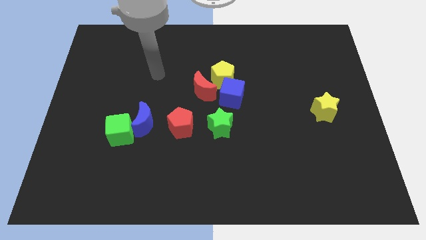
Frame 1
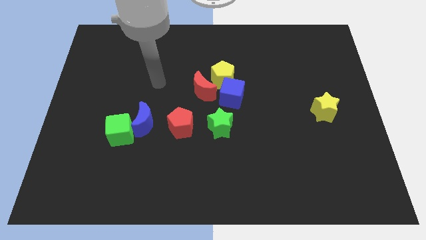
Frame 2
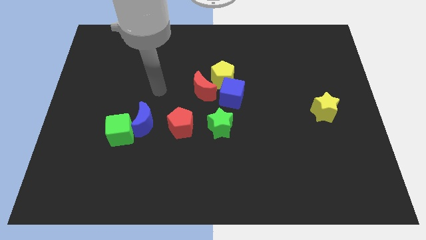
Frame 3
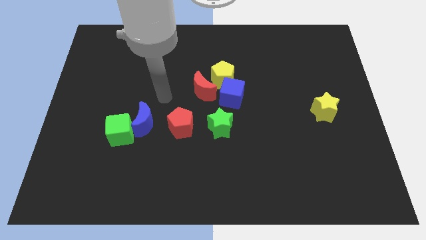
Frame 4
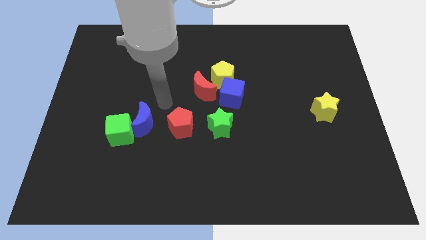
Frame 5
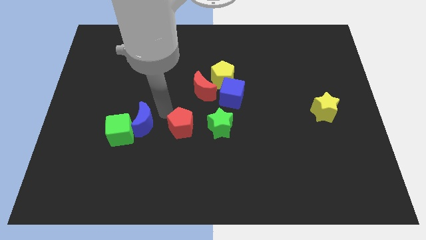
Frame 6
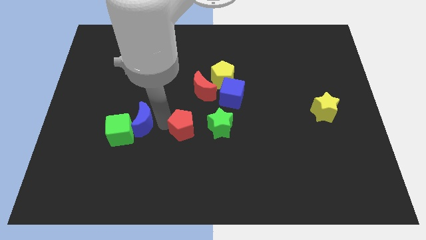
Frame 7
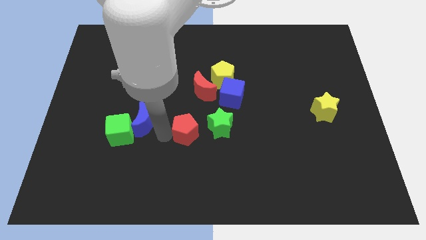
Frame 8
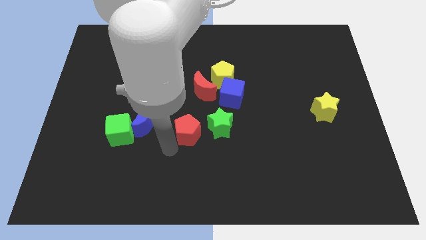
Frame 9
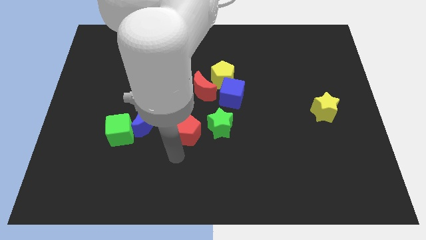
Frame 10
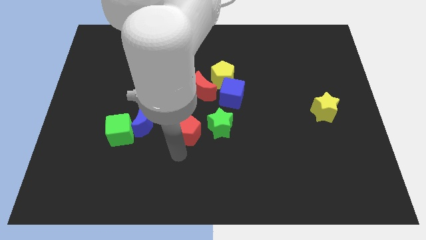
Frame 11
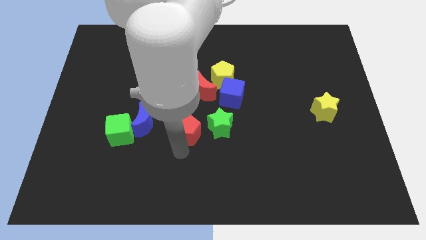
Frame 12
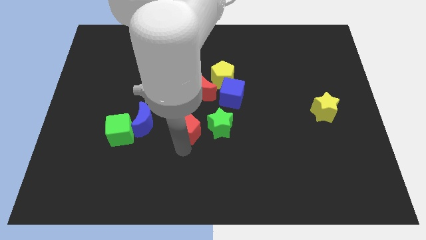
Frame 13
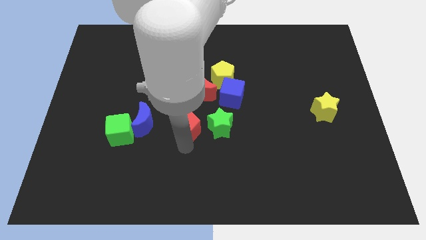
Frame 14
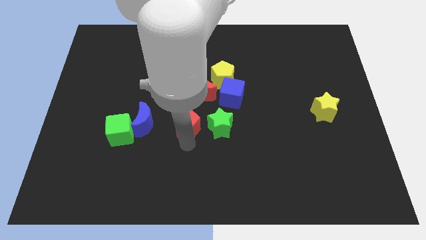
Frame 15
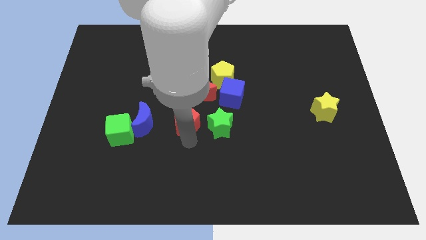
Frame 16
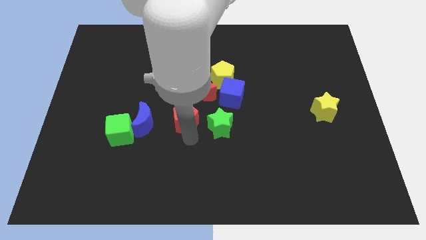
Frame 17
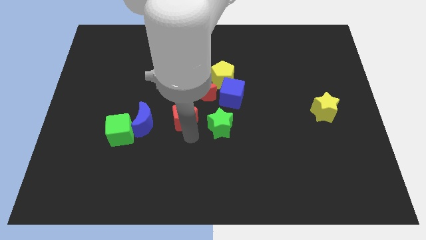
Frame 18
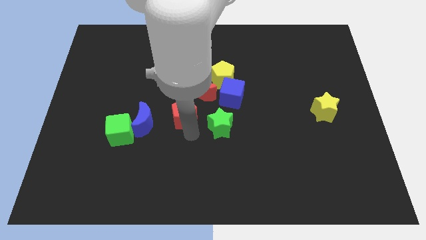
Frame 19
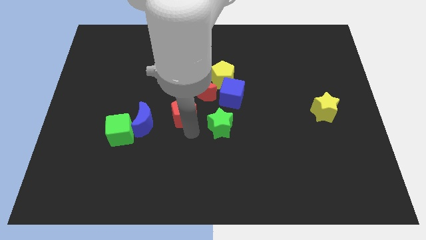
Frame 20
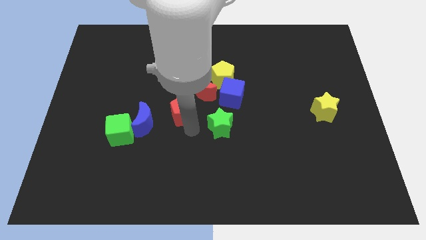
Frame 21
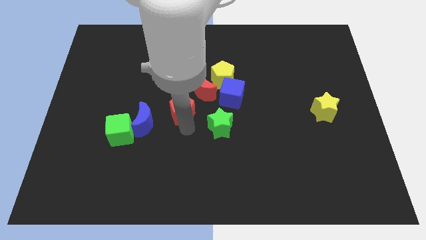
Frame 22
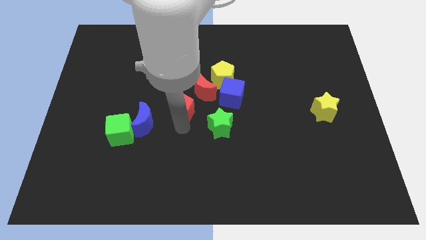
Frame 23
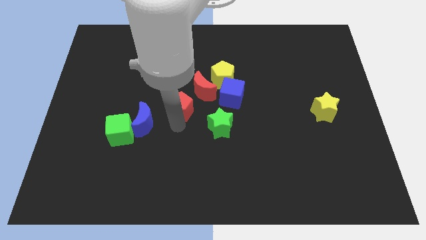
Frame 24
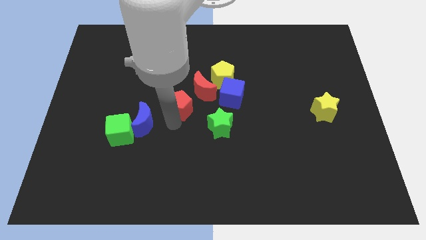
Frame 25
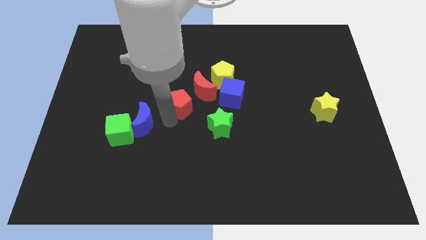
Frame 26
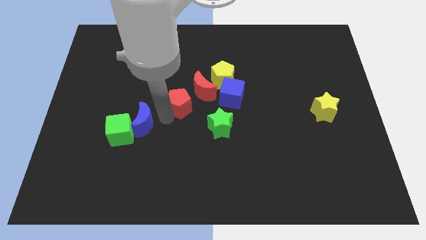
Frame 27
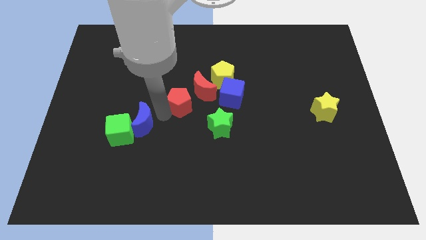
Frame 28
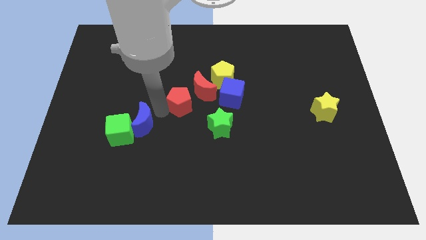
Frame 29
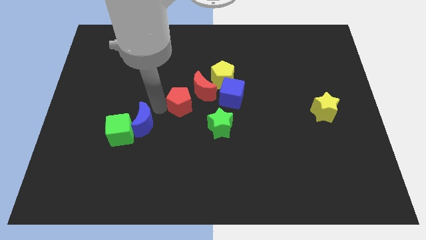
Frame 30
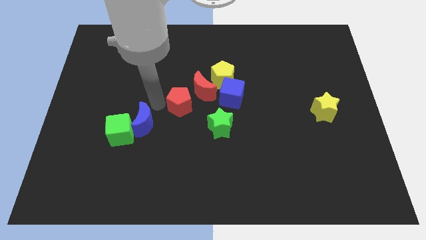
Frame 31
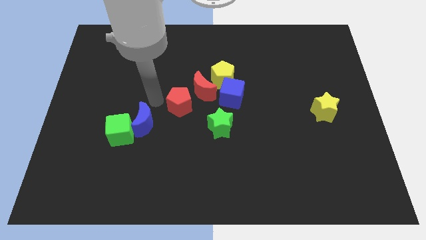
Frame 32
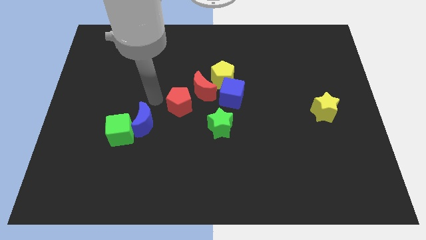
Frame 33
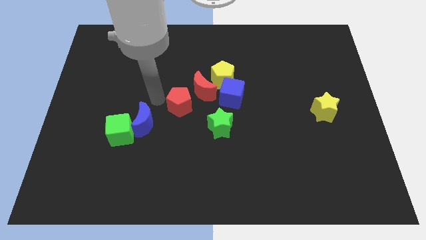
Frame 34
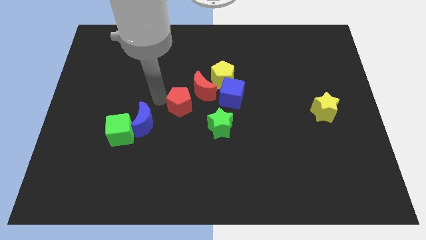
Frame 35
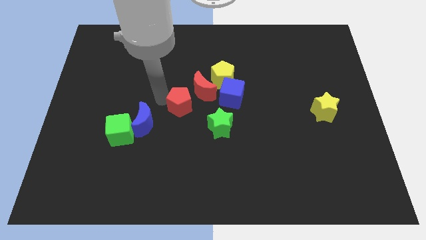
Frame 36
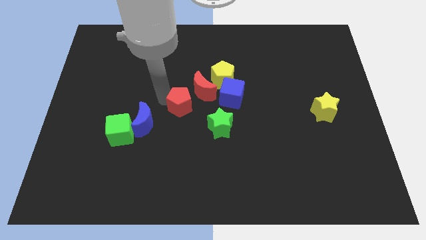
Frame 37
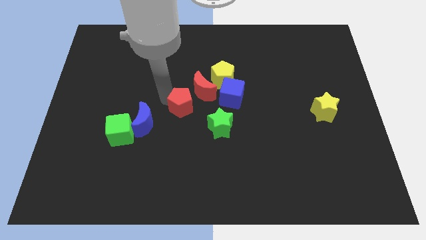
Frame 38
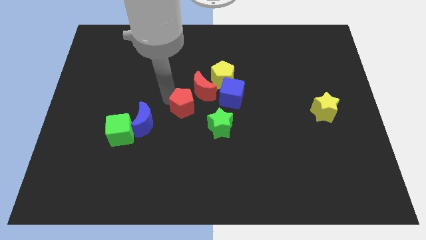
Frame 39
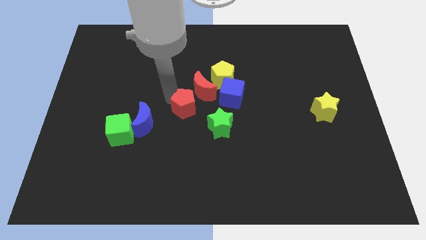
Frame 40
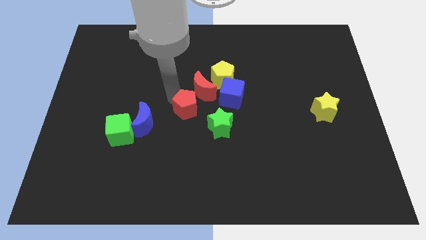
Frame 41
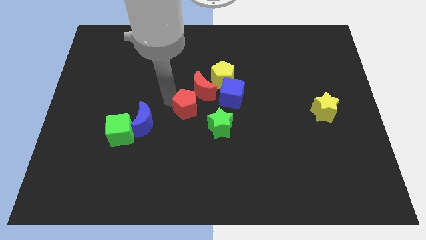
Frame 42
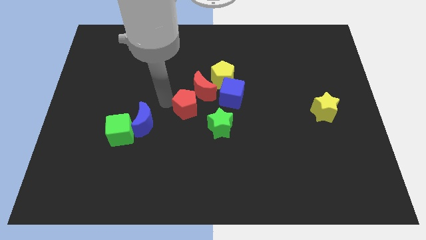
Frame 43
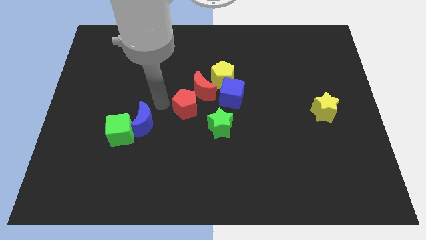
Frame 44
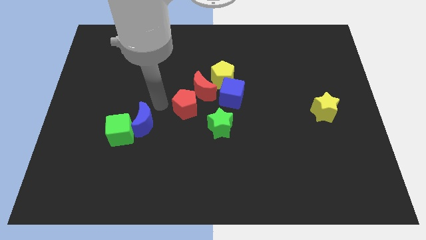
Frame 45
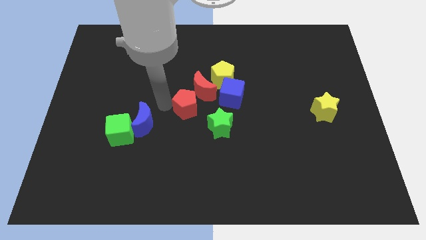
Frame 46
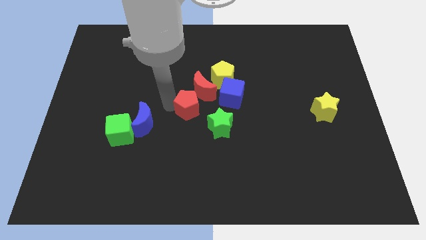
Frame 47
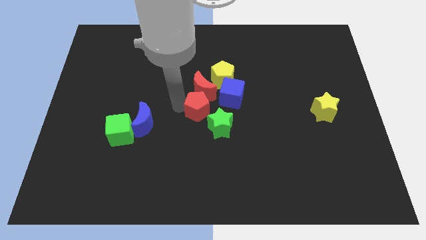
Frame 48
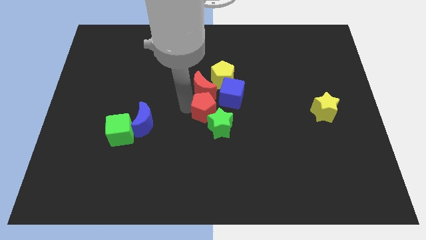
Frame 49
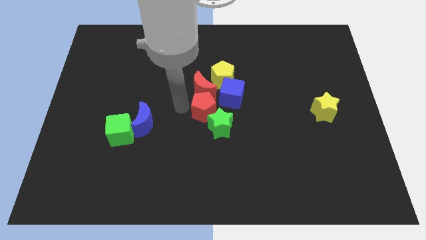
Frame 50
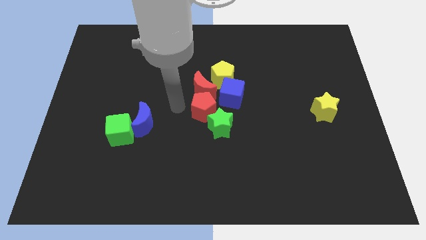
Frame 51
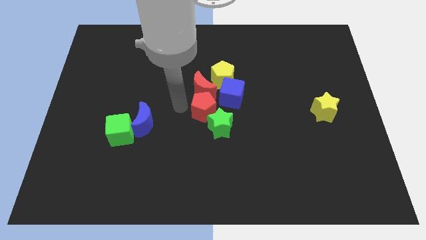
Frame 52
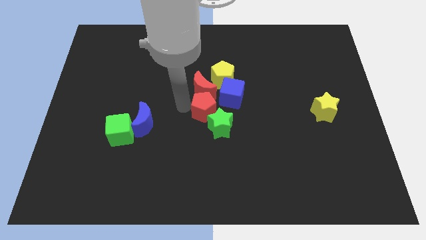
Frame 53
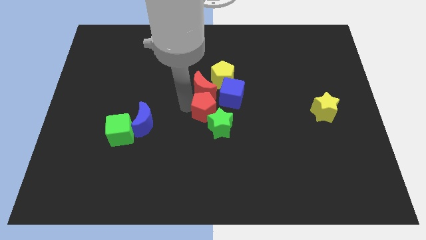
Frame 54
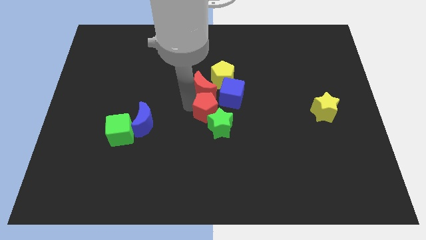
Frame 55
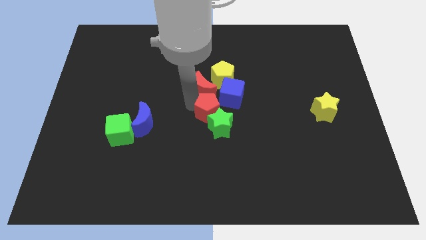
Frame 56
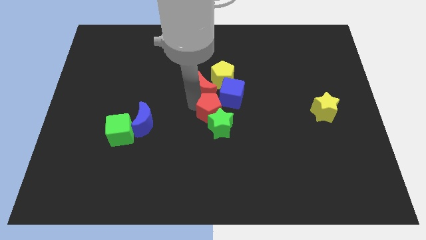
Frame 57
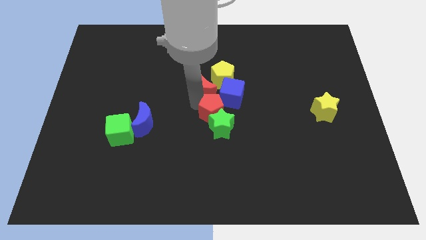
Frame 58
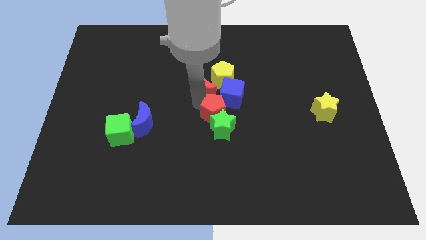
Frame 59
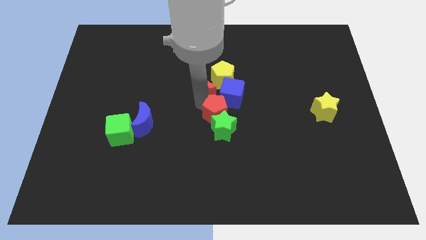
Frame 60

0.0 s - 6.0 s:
slightly move the red pentagon right

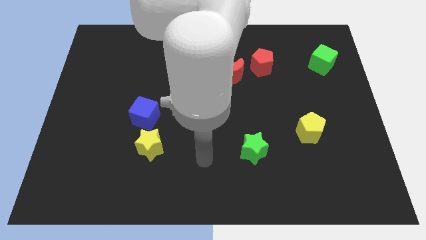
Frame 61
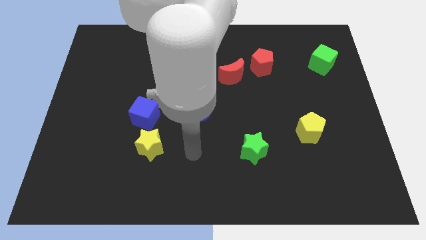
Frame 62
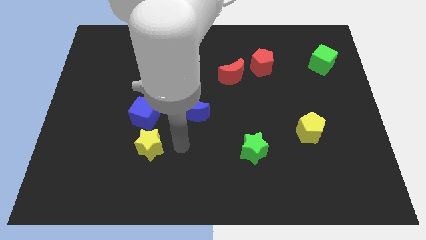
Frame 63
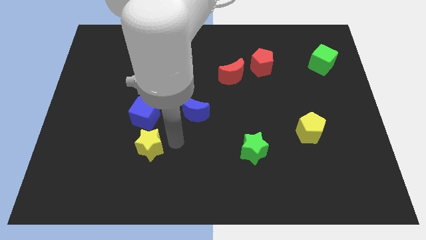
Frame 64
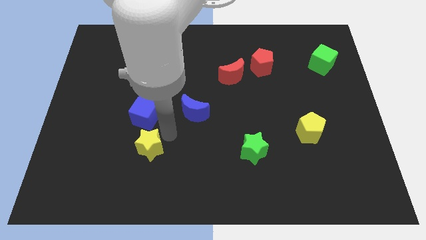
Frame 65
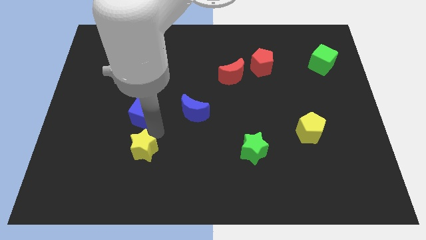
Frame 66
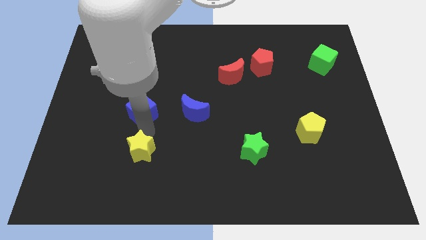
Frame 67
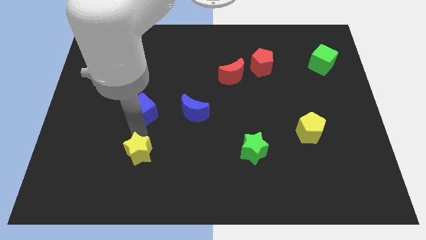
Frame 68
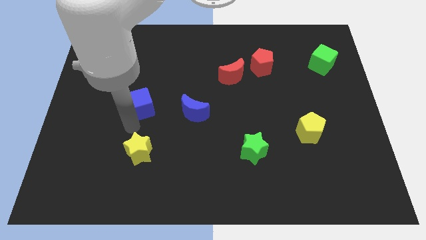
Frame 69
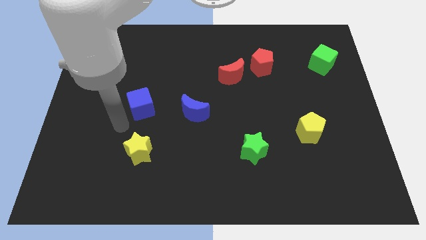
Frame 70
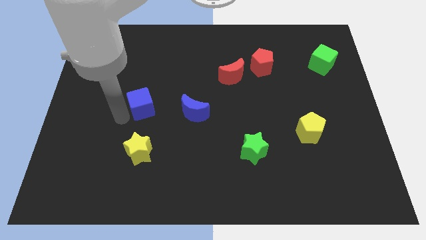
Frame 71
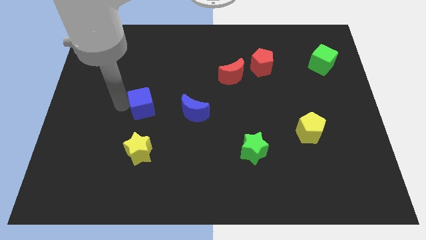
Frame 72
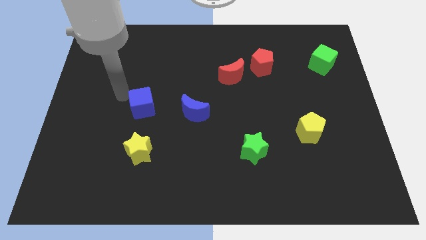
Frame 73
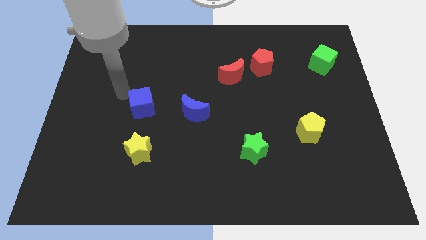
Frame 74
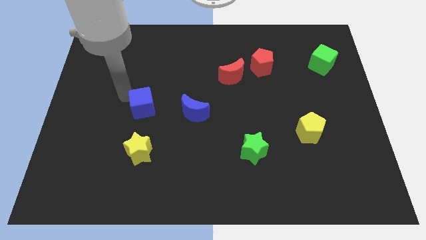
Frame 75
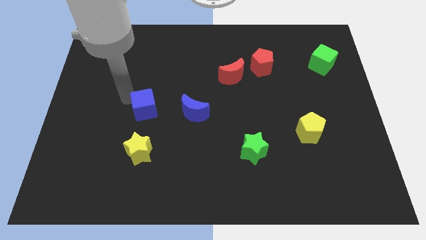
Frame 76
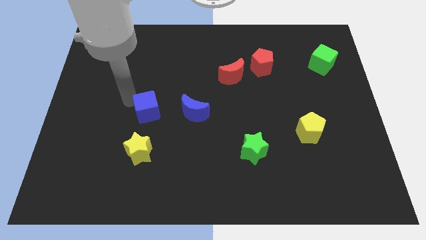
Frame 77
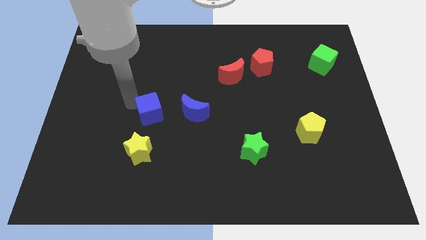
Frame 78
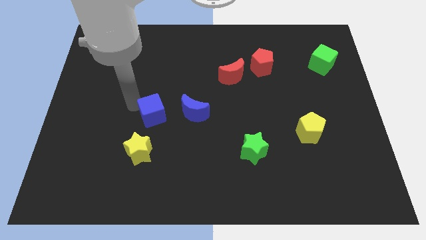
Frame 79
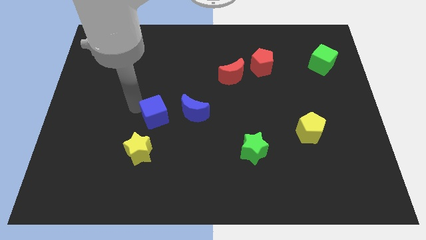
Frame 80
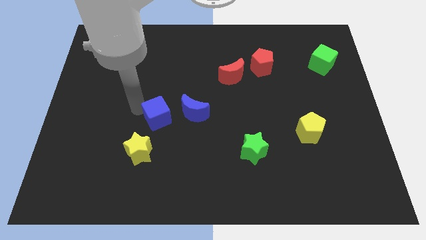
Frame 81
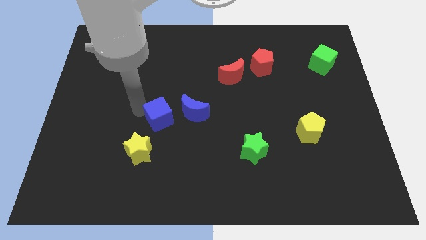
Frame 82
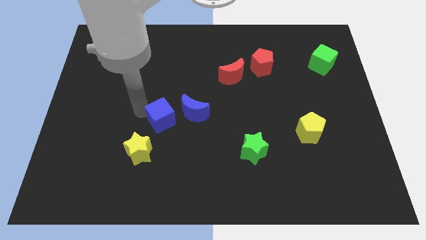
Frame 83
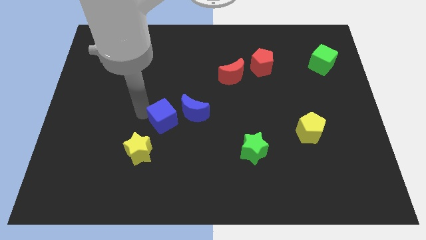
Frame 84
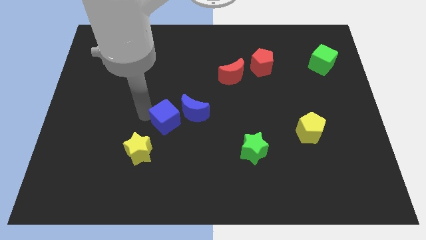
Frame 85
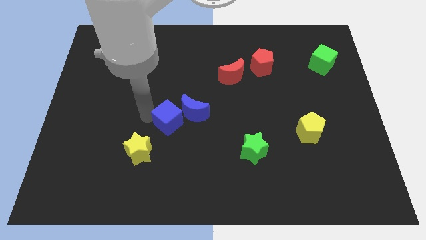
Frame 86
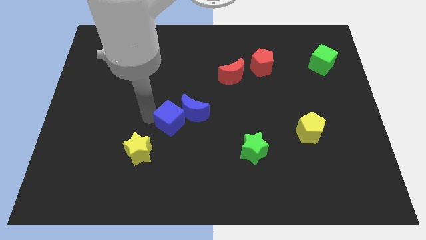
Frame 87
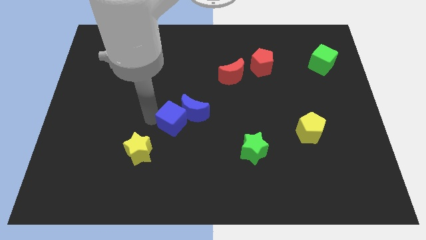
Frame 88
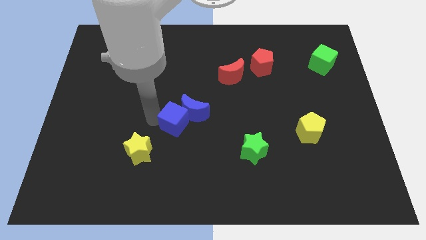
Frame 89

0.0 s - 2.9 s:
slightly move the blue cube right
